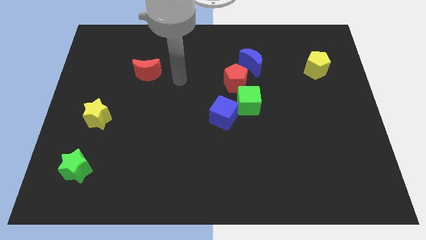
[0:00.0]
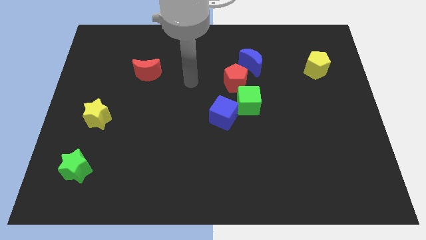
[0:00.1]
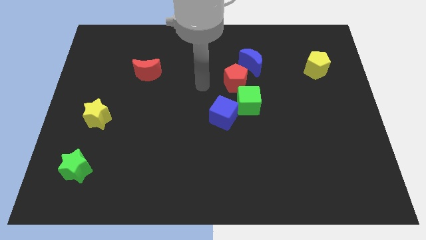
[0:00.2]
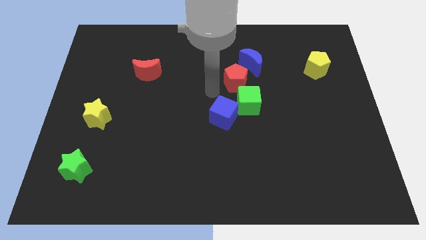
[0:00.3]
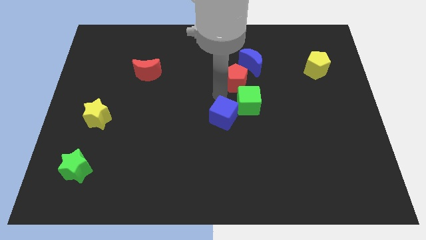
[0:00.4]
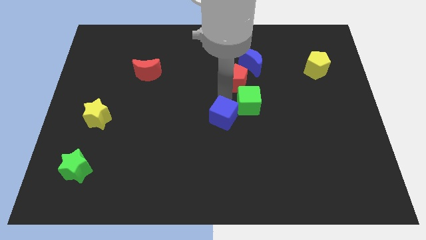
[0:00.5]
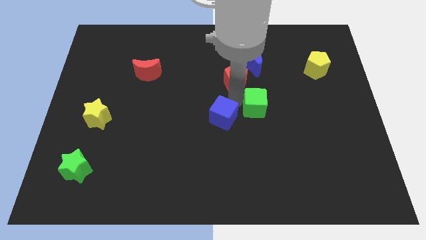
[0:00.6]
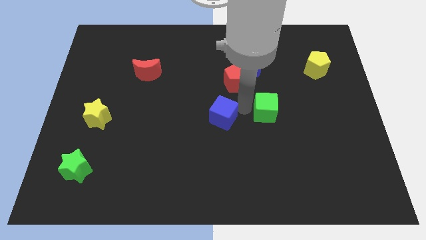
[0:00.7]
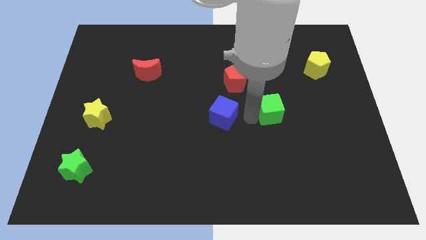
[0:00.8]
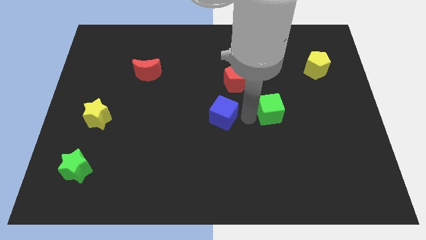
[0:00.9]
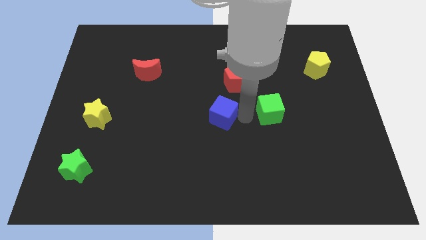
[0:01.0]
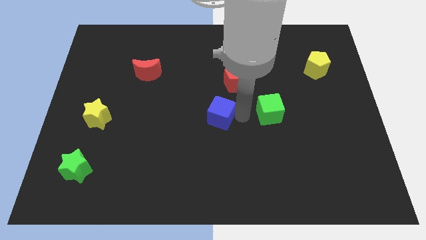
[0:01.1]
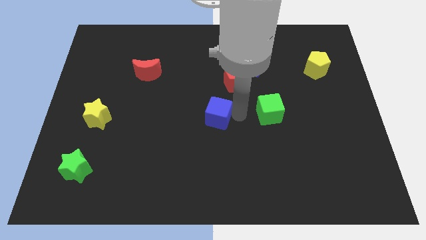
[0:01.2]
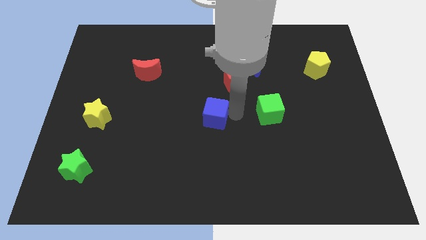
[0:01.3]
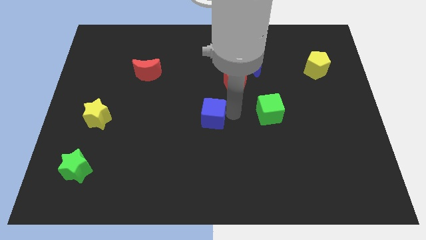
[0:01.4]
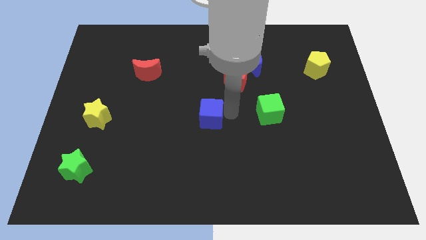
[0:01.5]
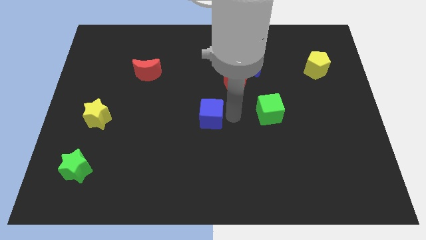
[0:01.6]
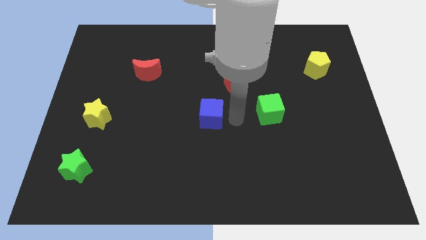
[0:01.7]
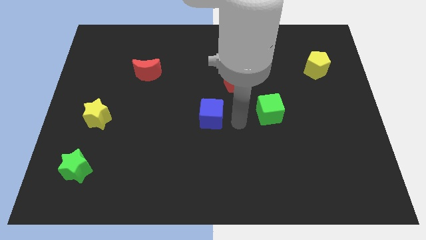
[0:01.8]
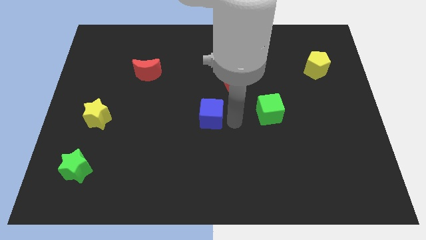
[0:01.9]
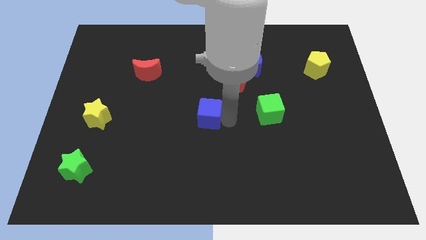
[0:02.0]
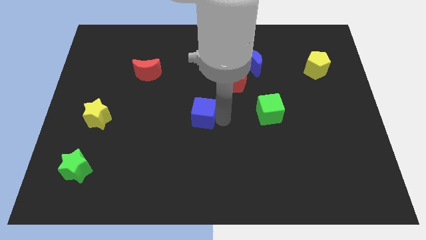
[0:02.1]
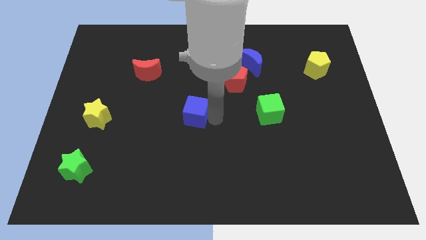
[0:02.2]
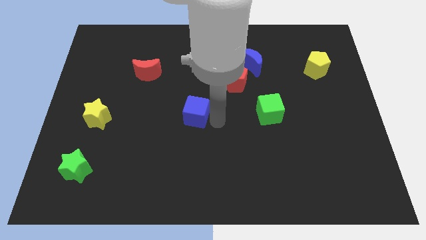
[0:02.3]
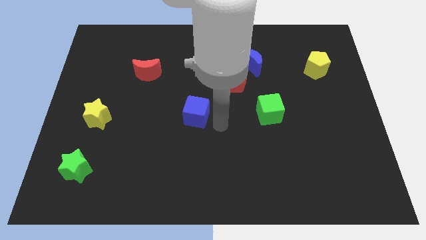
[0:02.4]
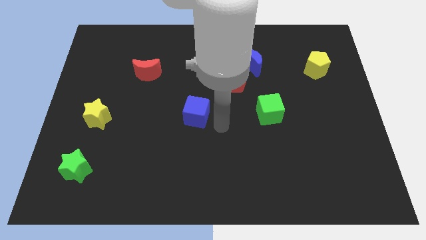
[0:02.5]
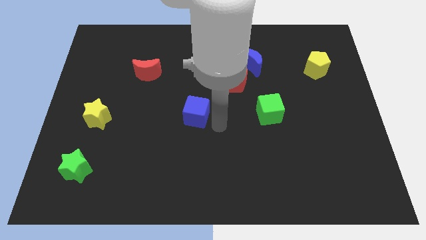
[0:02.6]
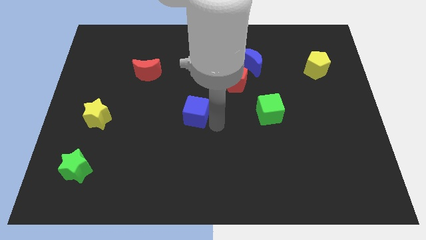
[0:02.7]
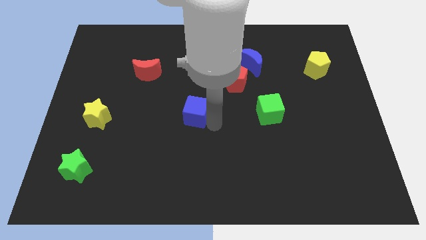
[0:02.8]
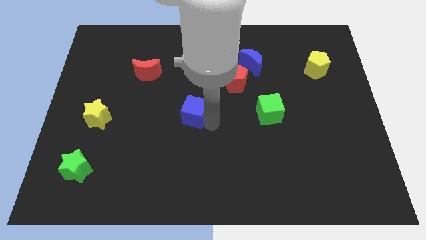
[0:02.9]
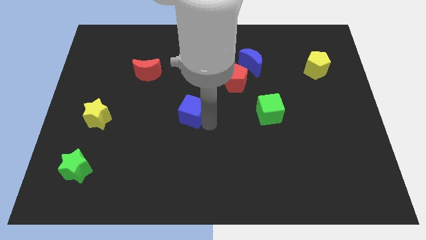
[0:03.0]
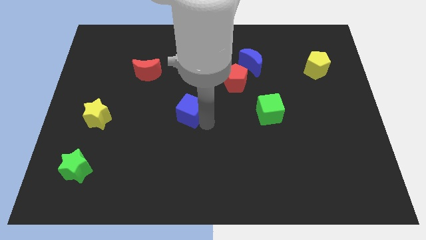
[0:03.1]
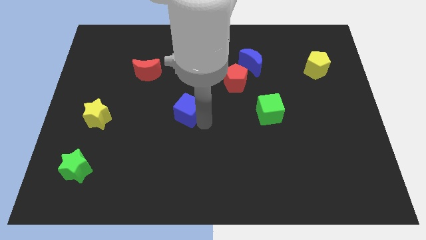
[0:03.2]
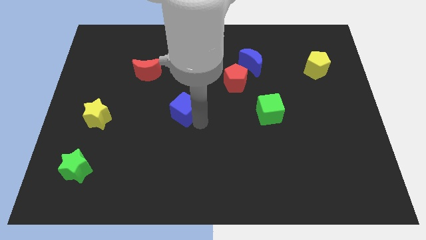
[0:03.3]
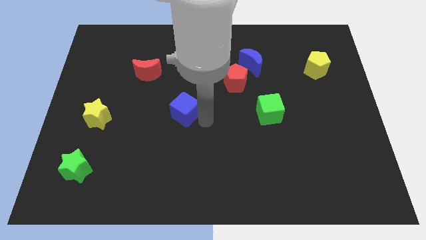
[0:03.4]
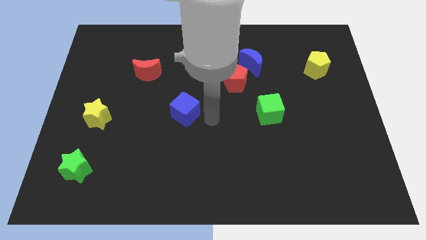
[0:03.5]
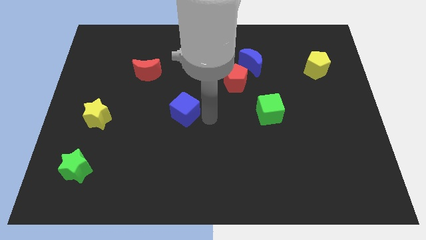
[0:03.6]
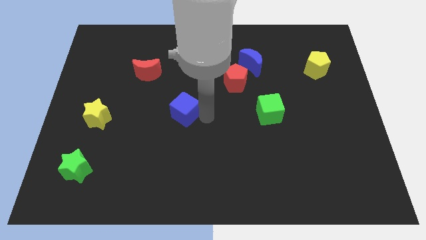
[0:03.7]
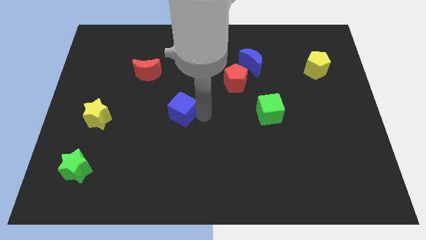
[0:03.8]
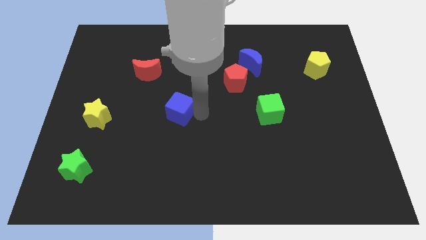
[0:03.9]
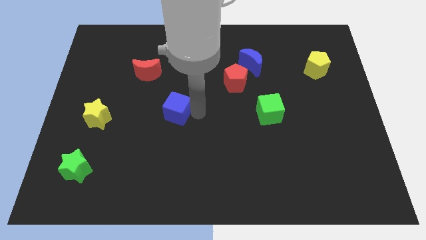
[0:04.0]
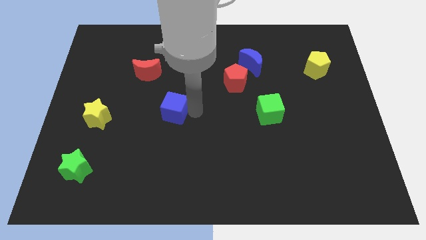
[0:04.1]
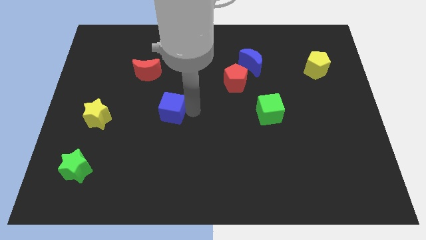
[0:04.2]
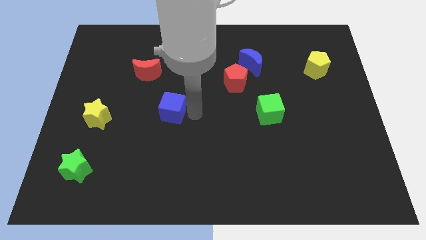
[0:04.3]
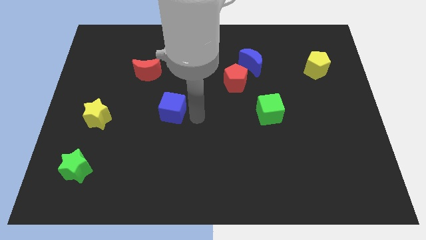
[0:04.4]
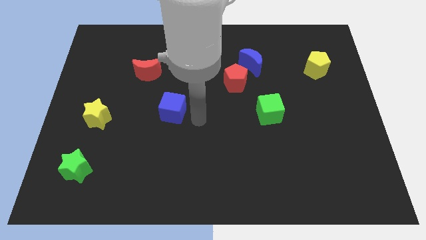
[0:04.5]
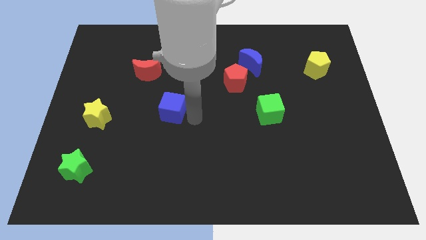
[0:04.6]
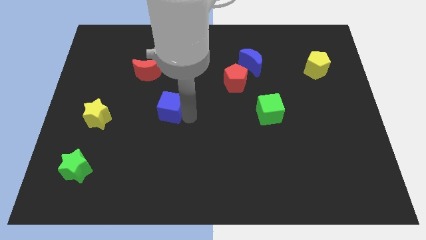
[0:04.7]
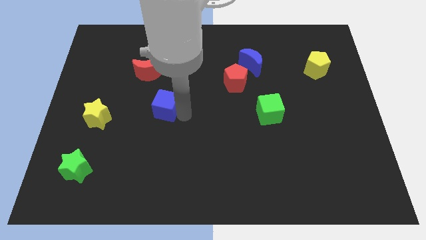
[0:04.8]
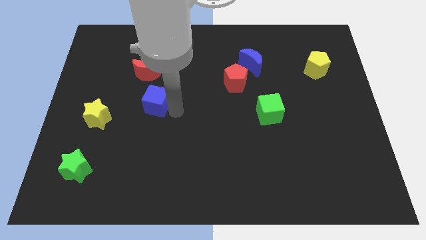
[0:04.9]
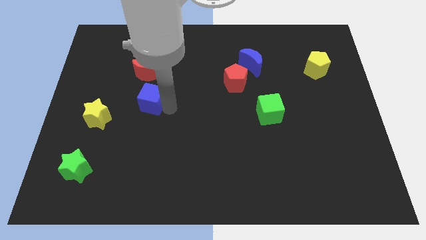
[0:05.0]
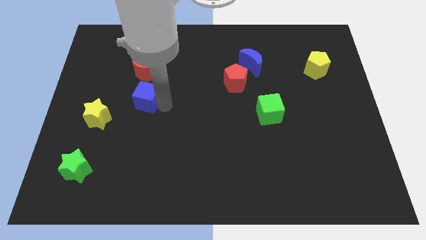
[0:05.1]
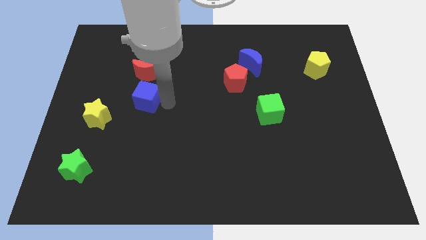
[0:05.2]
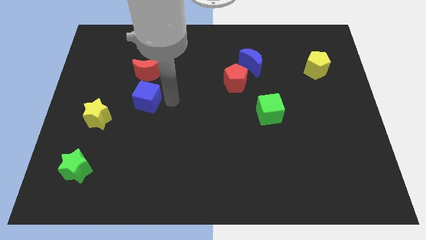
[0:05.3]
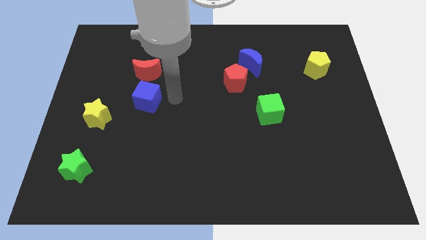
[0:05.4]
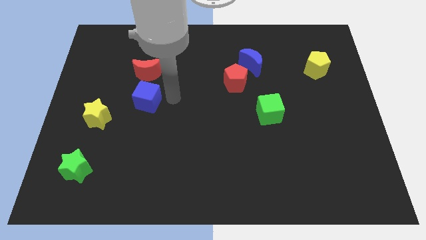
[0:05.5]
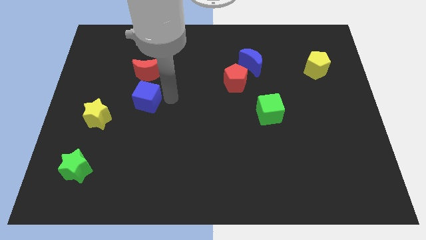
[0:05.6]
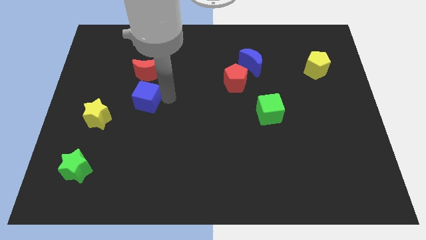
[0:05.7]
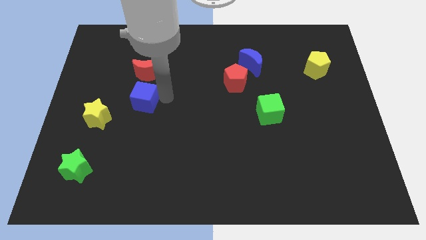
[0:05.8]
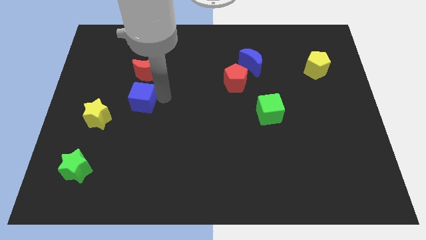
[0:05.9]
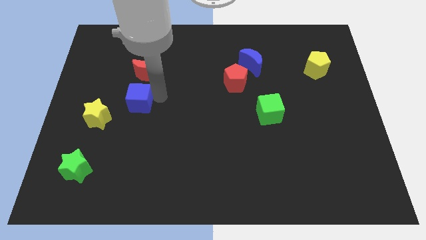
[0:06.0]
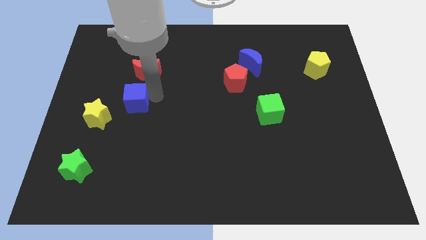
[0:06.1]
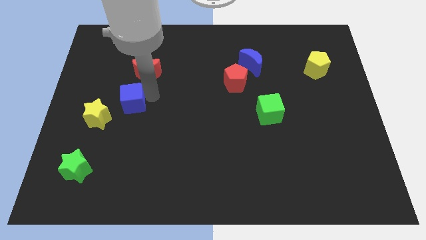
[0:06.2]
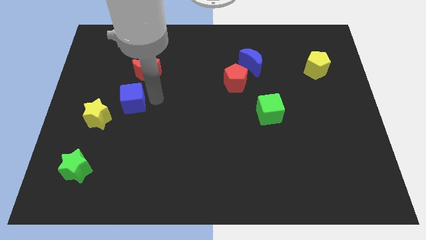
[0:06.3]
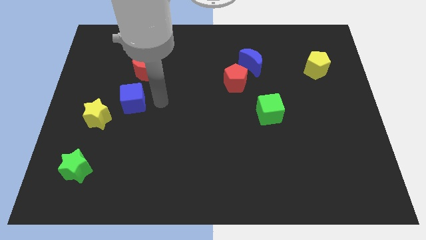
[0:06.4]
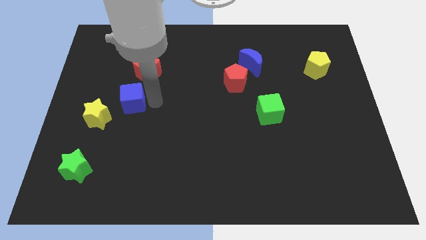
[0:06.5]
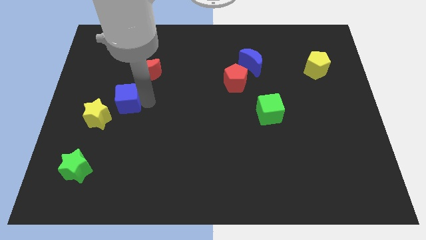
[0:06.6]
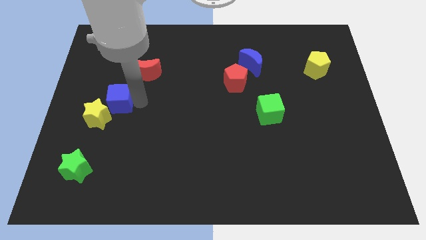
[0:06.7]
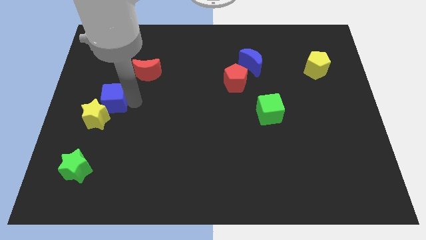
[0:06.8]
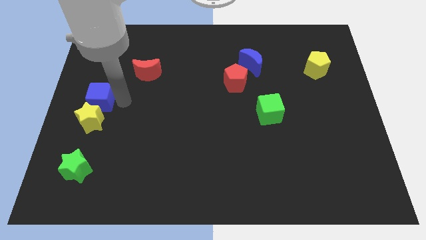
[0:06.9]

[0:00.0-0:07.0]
slide the blue cube to the left side
